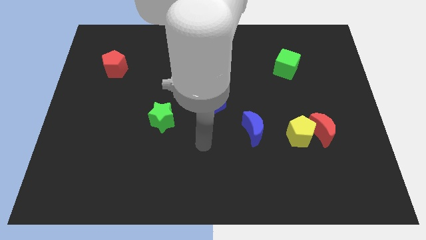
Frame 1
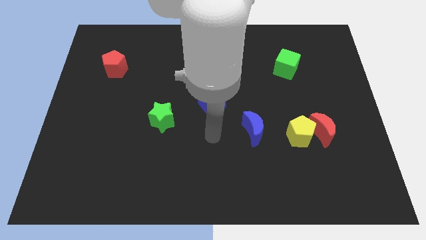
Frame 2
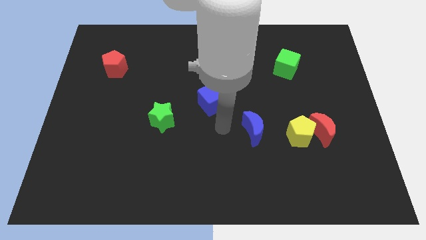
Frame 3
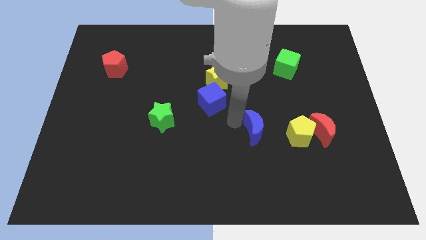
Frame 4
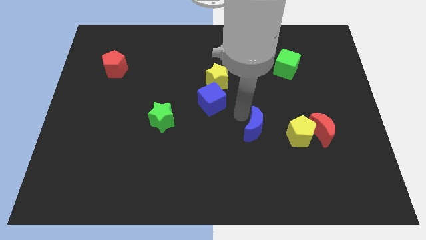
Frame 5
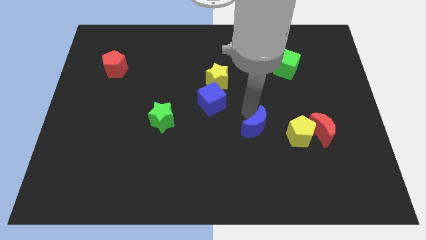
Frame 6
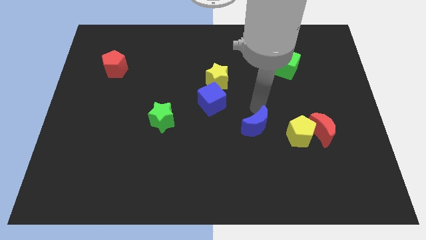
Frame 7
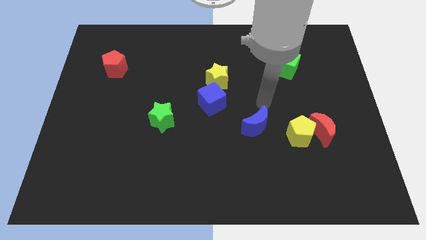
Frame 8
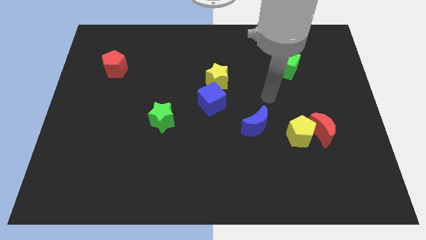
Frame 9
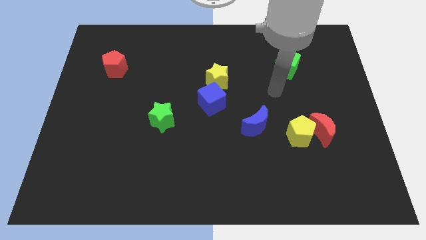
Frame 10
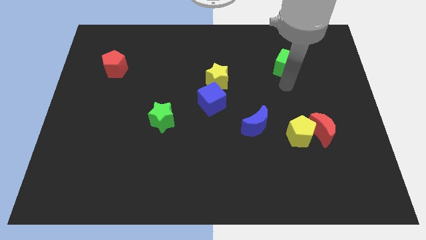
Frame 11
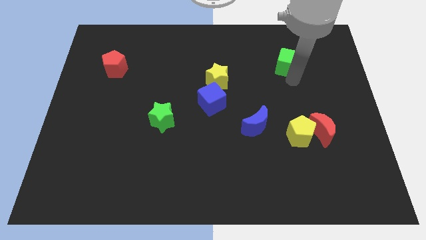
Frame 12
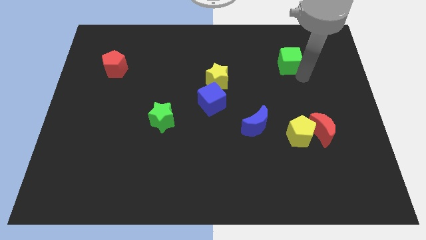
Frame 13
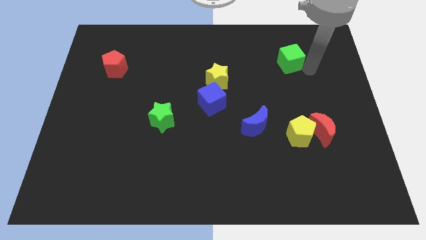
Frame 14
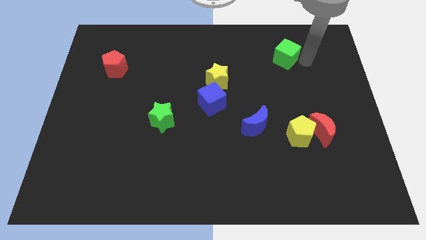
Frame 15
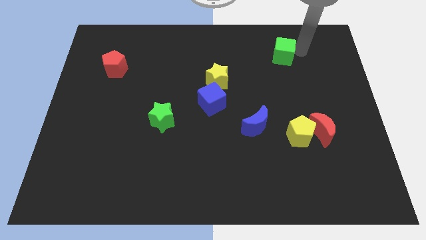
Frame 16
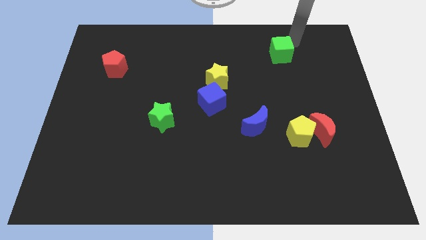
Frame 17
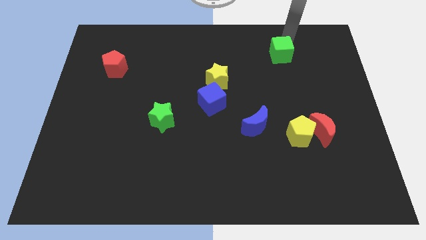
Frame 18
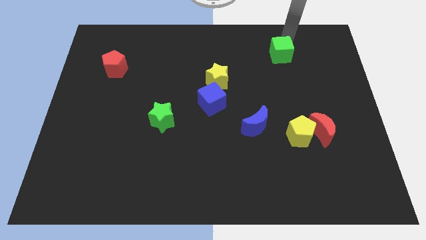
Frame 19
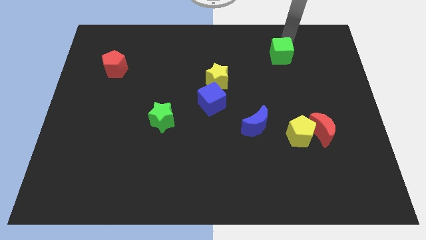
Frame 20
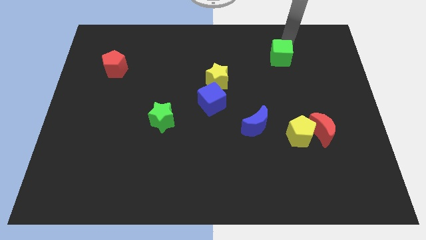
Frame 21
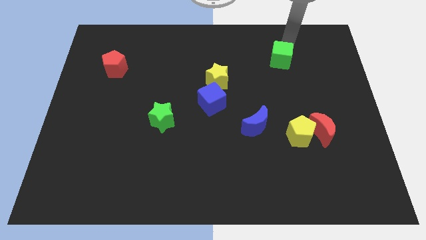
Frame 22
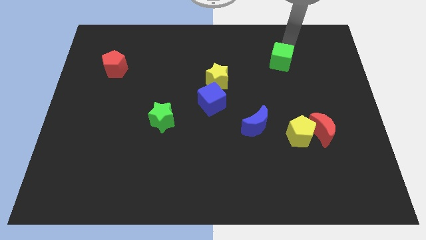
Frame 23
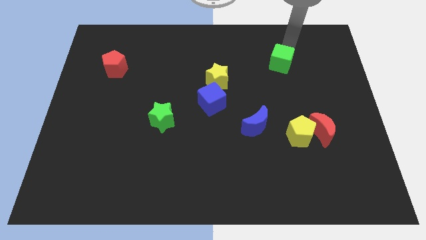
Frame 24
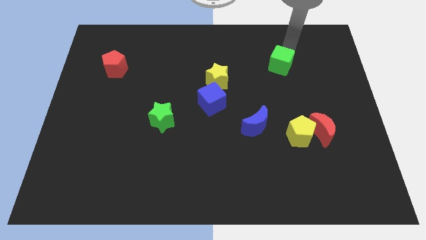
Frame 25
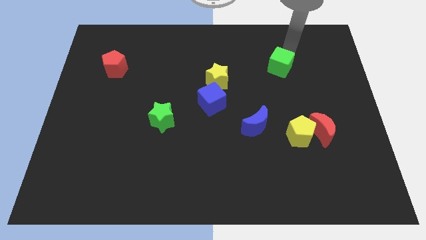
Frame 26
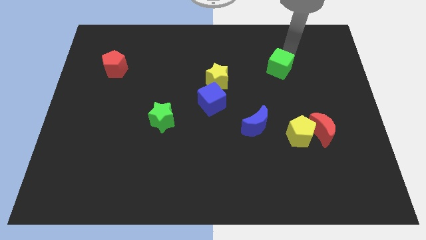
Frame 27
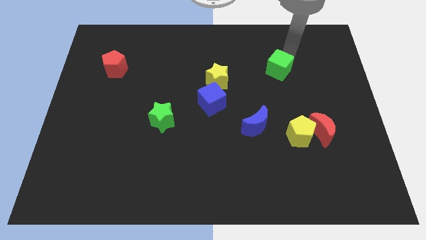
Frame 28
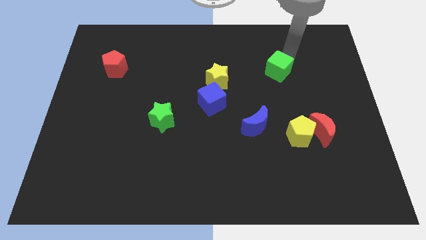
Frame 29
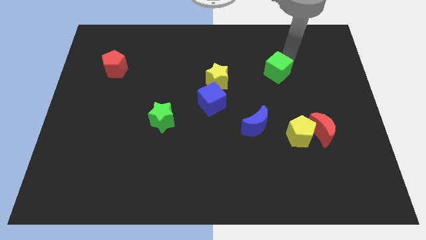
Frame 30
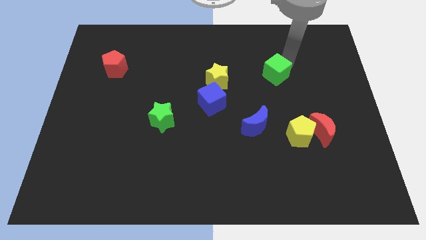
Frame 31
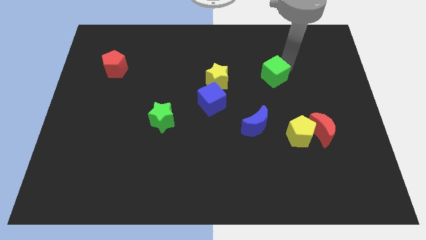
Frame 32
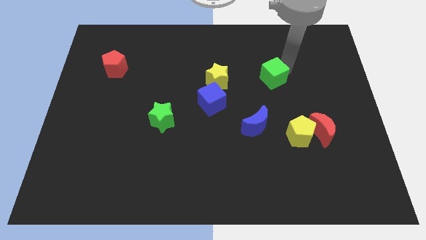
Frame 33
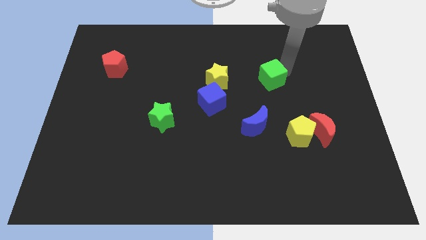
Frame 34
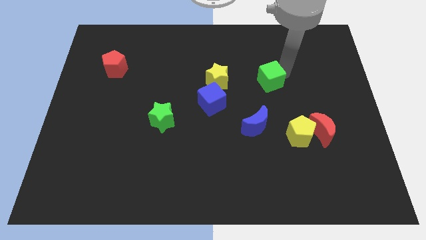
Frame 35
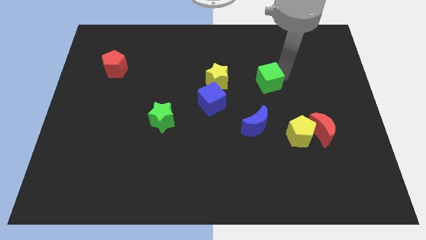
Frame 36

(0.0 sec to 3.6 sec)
slide the green cube a little diagonally down and to the left

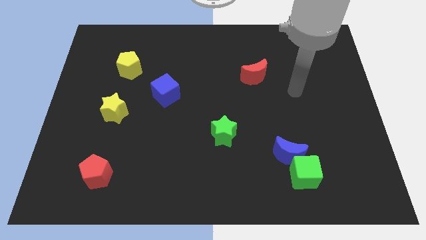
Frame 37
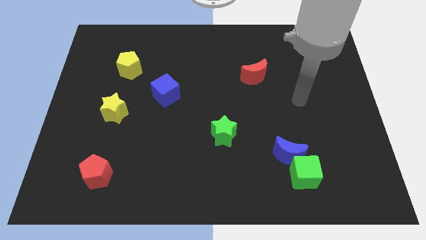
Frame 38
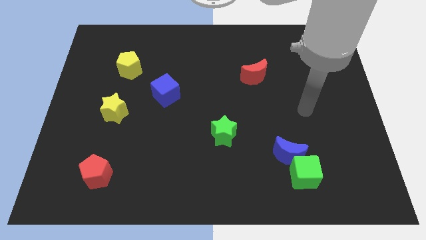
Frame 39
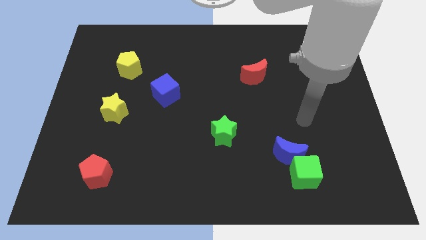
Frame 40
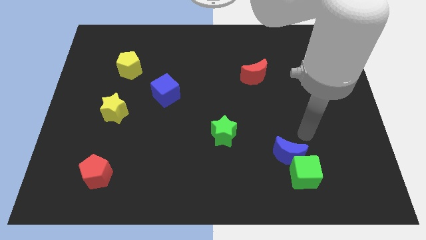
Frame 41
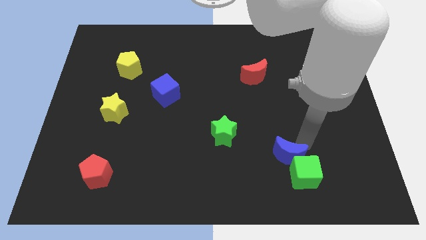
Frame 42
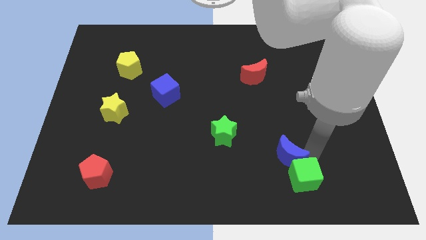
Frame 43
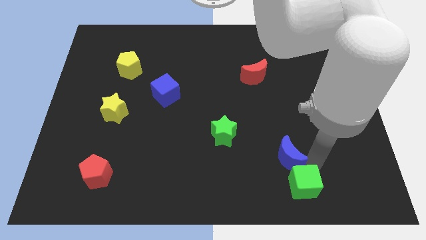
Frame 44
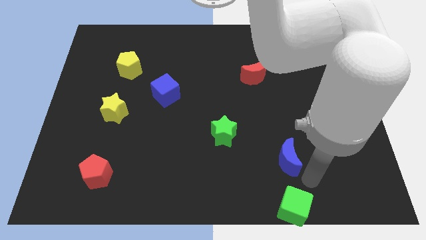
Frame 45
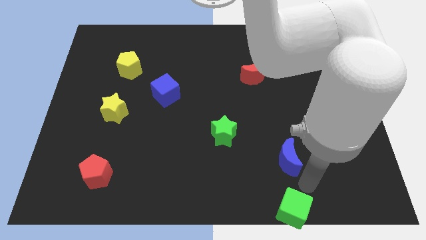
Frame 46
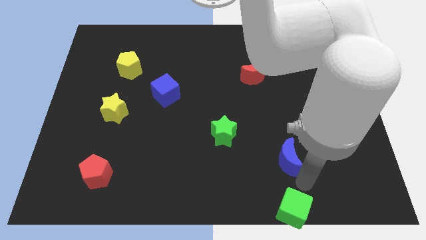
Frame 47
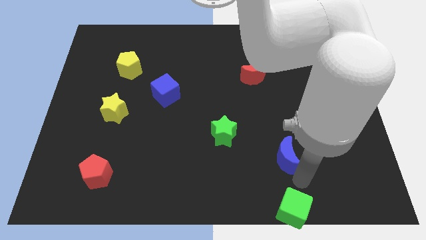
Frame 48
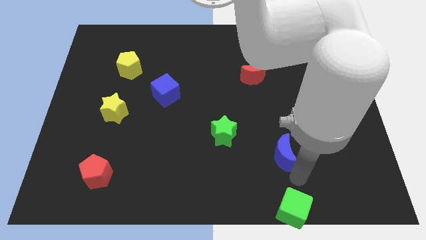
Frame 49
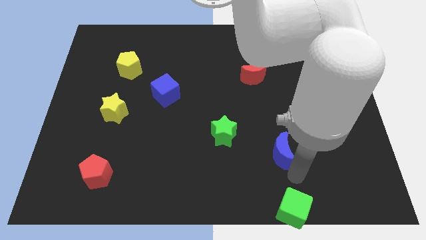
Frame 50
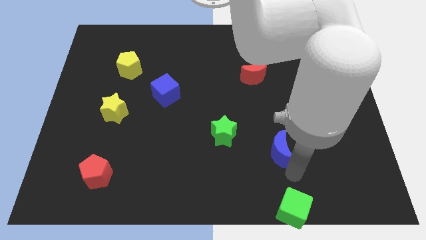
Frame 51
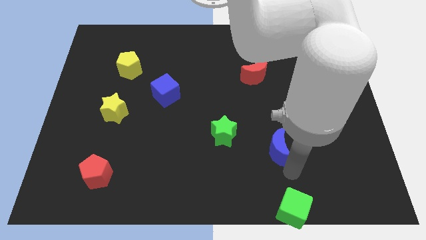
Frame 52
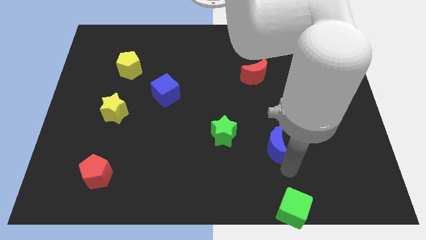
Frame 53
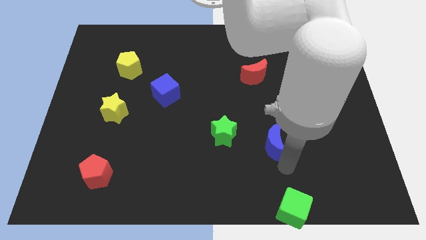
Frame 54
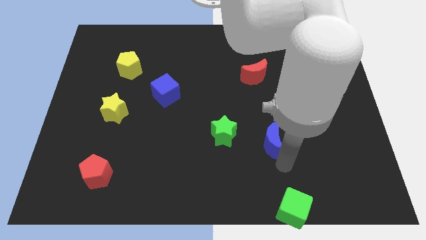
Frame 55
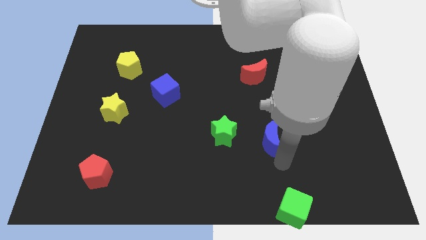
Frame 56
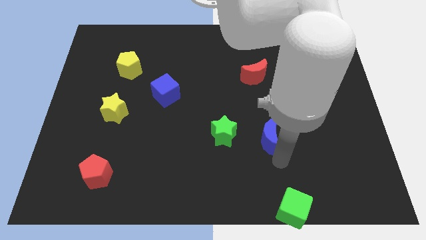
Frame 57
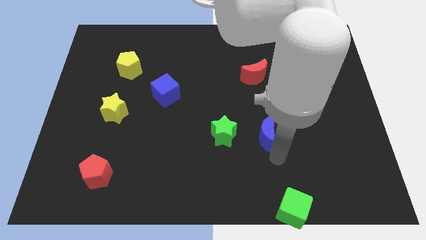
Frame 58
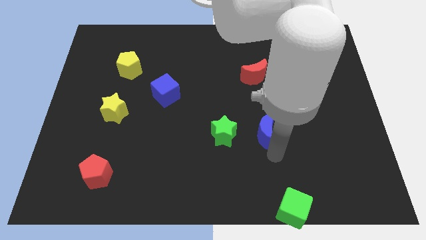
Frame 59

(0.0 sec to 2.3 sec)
slightly push the blue moon upwards and left

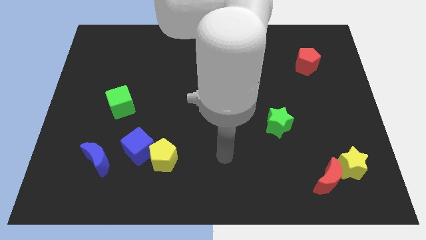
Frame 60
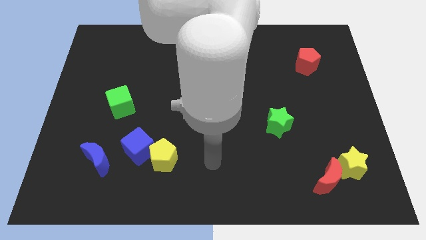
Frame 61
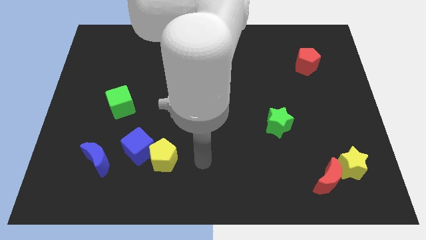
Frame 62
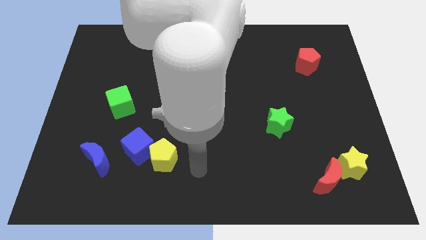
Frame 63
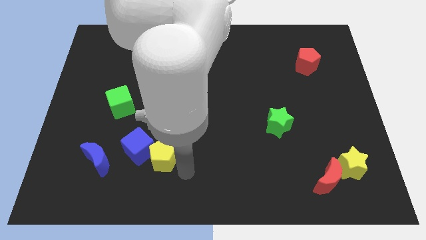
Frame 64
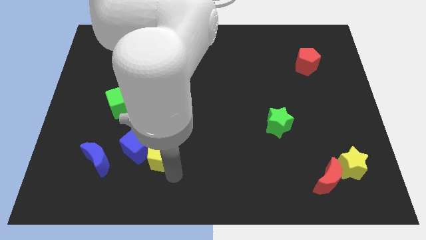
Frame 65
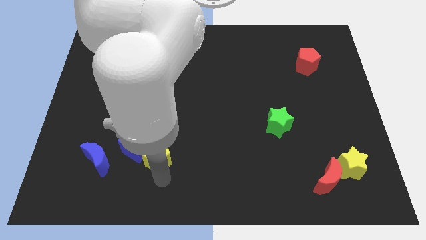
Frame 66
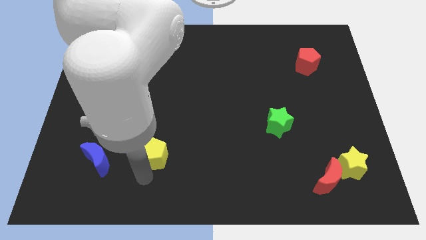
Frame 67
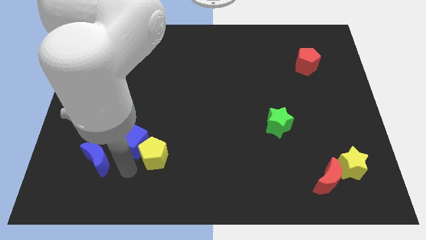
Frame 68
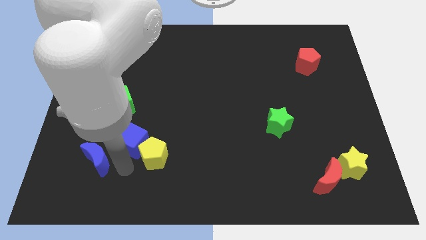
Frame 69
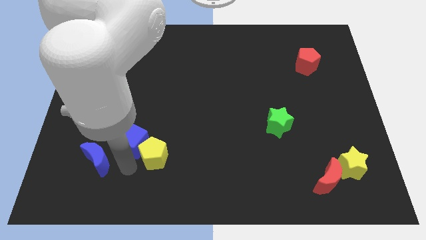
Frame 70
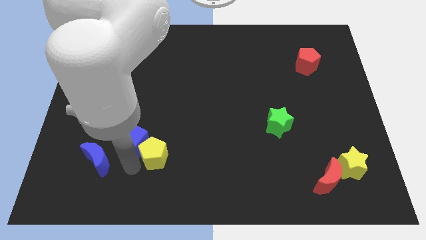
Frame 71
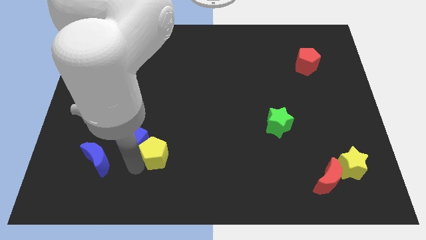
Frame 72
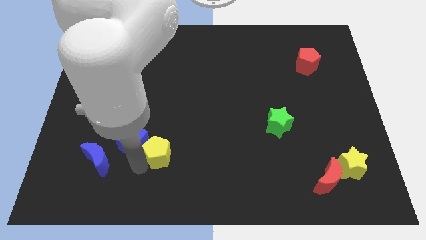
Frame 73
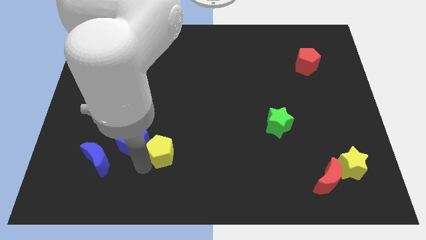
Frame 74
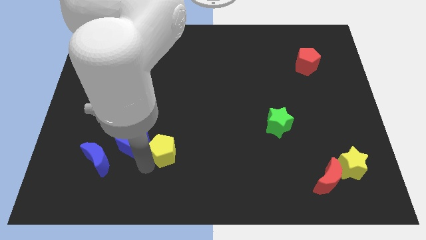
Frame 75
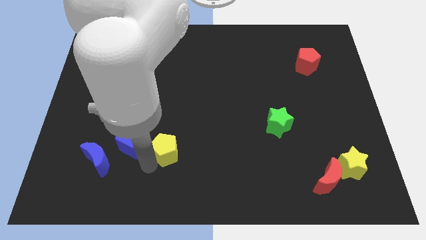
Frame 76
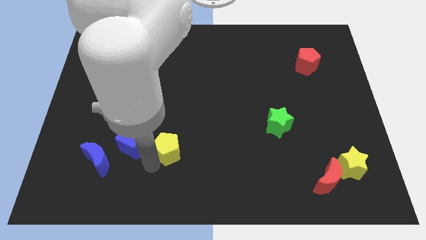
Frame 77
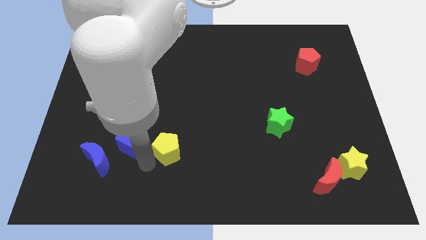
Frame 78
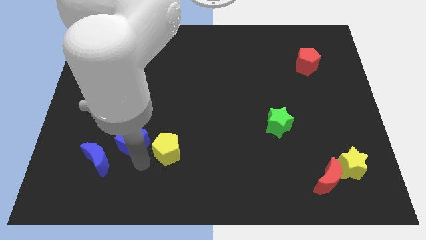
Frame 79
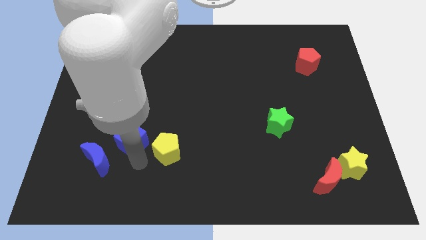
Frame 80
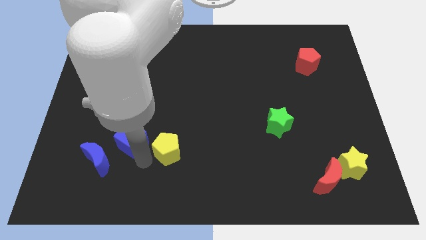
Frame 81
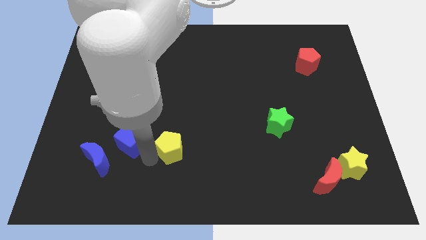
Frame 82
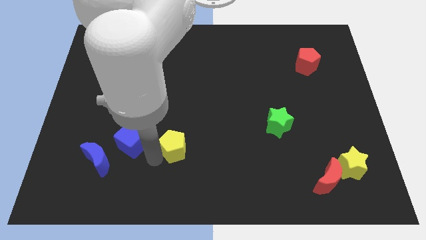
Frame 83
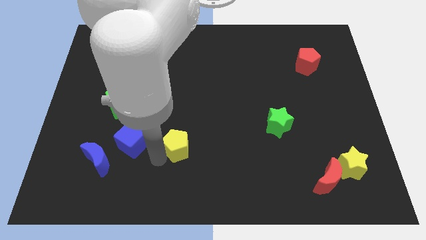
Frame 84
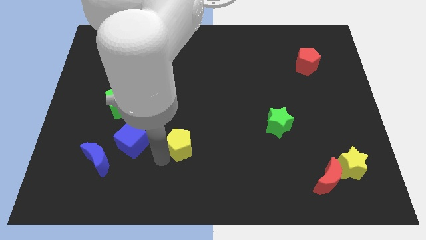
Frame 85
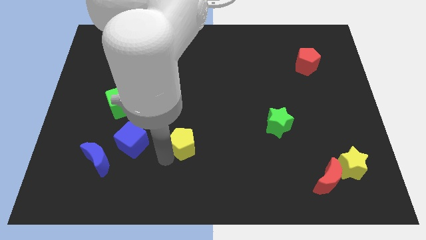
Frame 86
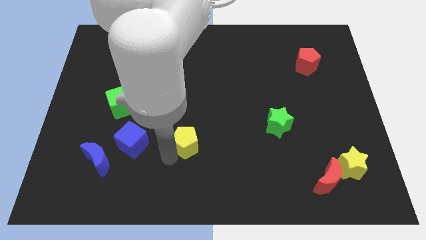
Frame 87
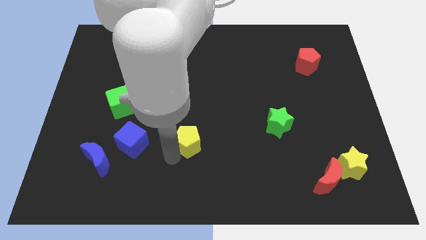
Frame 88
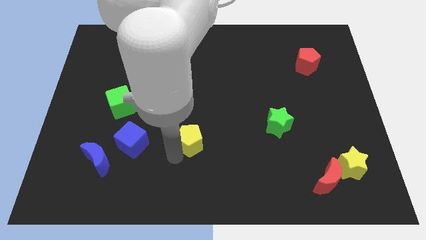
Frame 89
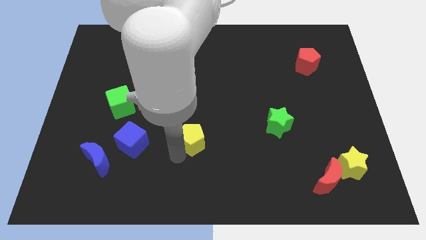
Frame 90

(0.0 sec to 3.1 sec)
push the yellow pentagon somewhat up and right
